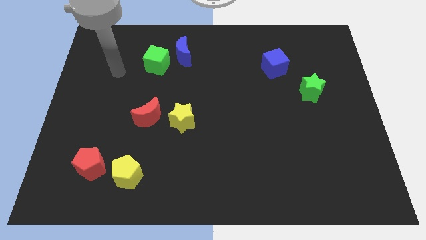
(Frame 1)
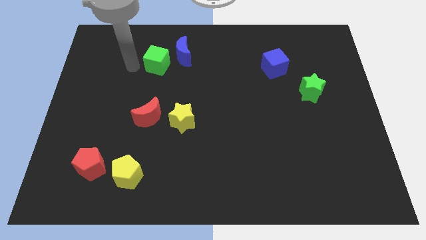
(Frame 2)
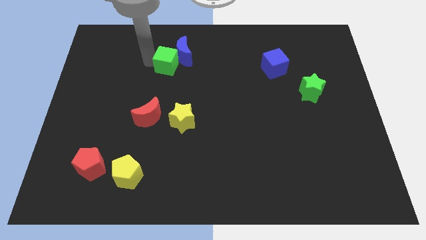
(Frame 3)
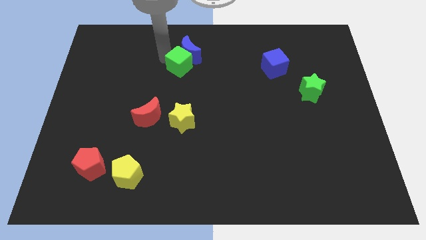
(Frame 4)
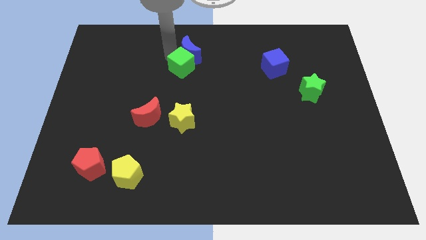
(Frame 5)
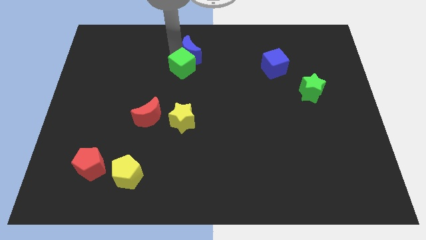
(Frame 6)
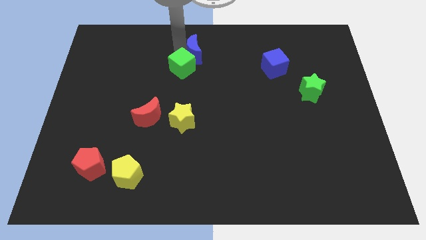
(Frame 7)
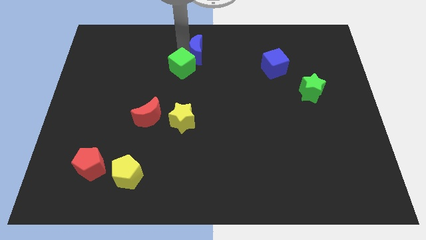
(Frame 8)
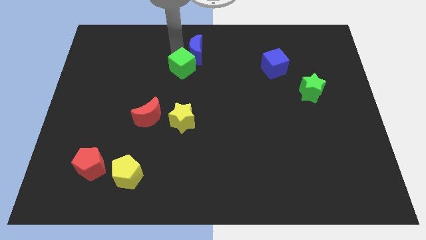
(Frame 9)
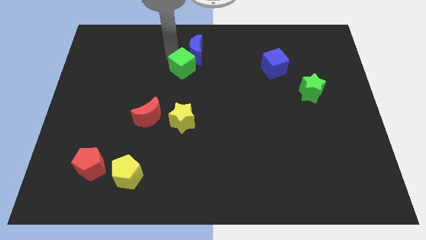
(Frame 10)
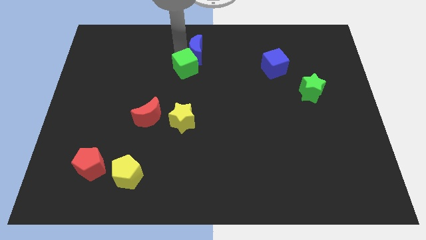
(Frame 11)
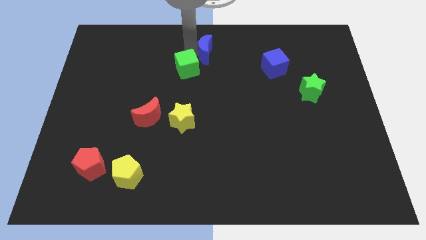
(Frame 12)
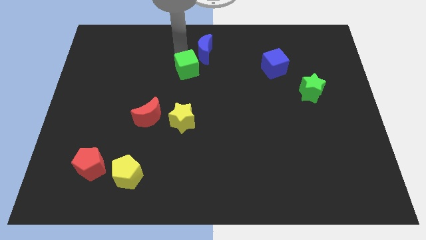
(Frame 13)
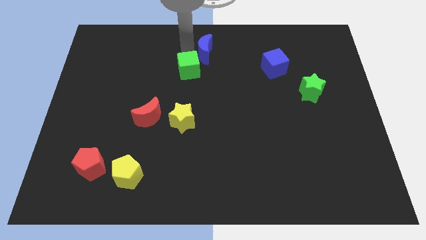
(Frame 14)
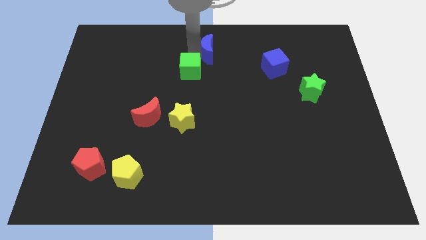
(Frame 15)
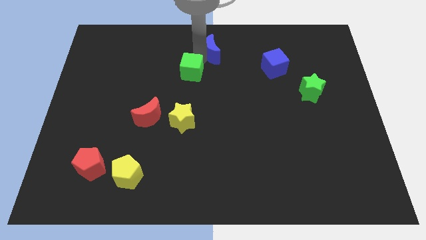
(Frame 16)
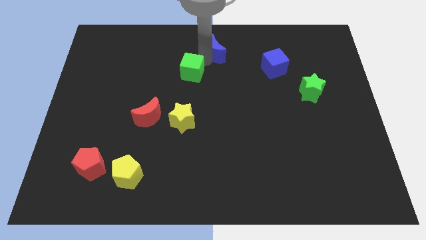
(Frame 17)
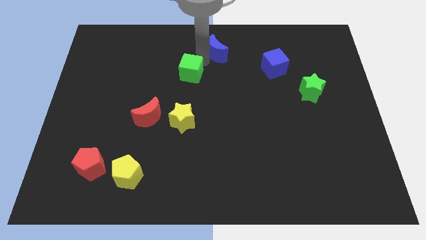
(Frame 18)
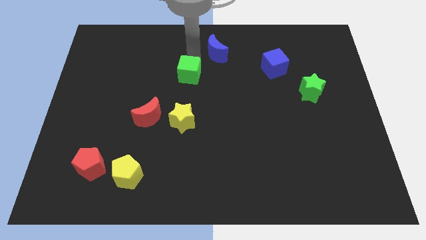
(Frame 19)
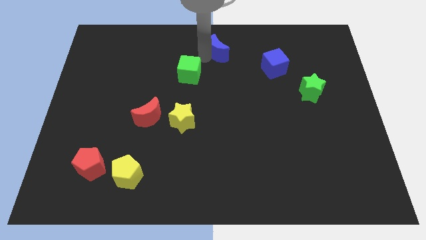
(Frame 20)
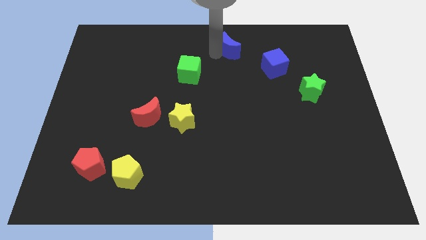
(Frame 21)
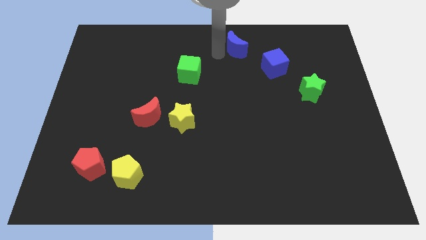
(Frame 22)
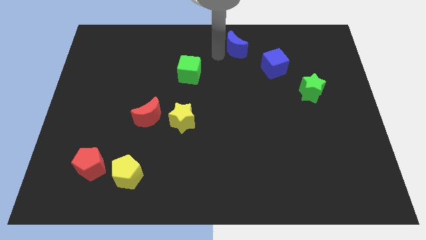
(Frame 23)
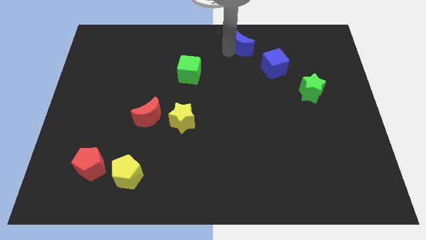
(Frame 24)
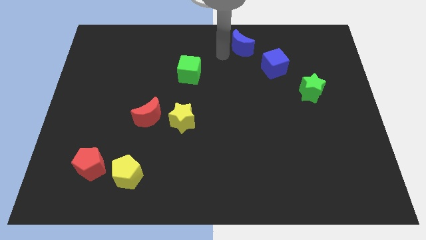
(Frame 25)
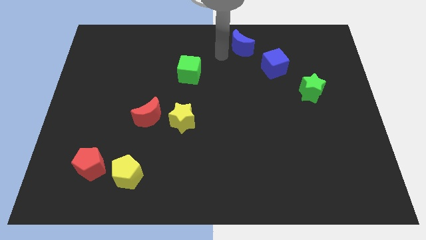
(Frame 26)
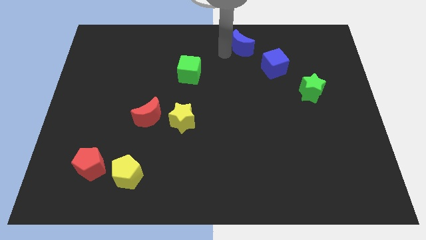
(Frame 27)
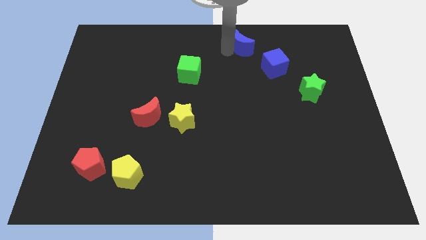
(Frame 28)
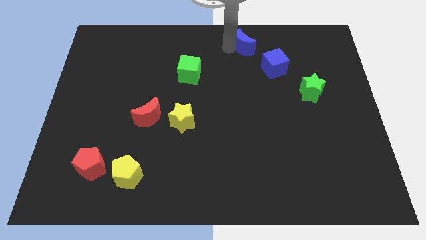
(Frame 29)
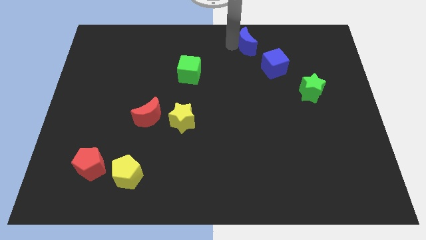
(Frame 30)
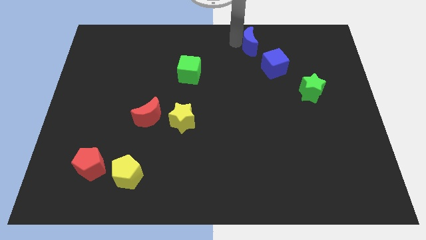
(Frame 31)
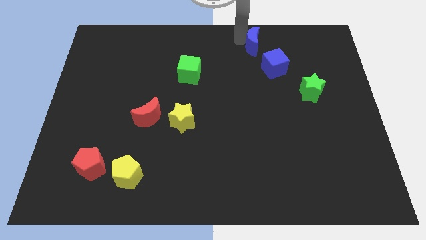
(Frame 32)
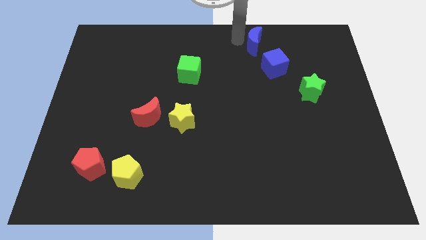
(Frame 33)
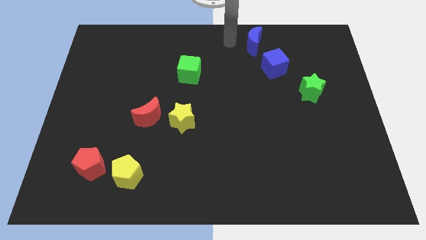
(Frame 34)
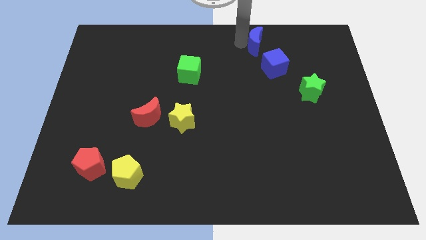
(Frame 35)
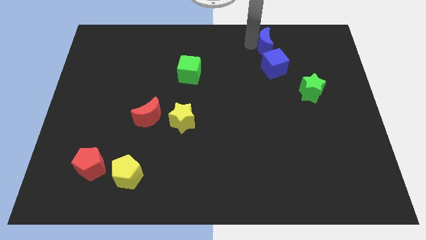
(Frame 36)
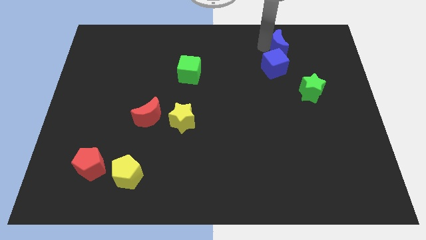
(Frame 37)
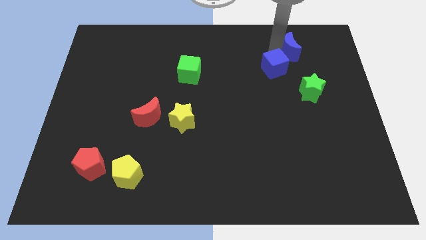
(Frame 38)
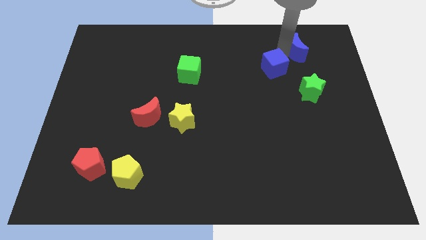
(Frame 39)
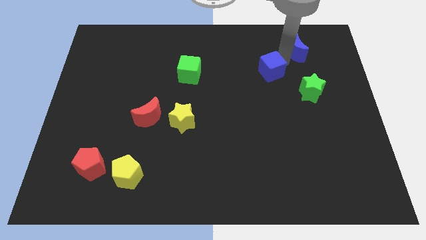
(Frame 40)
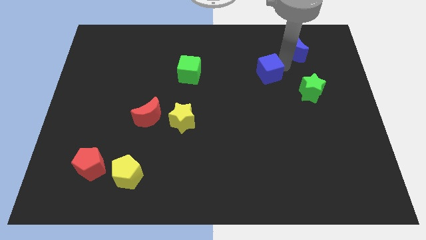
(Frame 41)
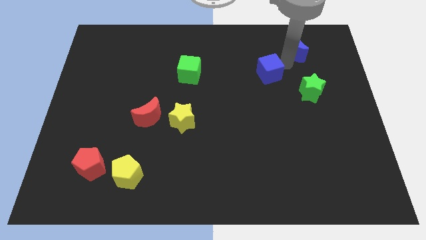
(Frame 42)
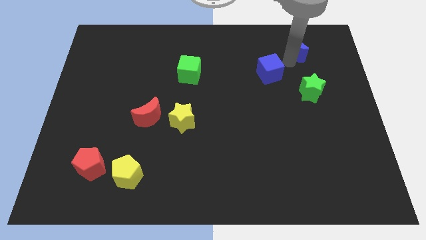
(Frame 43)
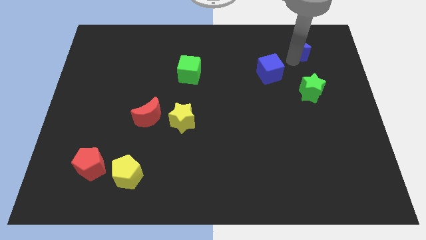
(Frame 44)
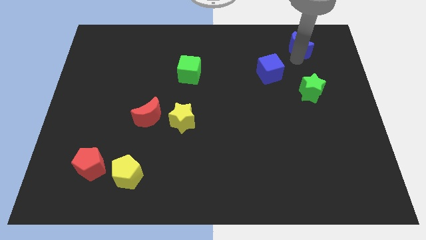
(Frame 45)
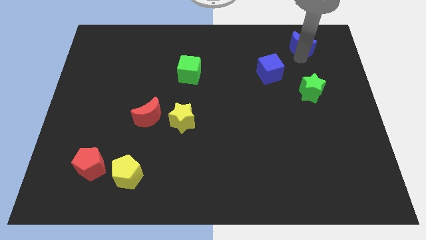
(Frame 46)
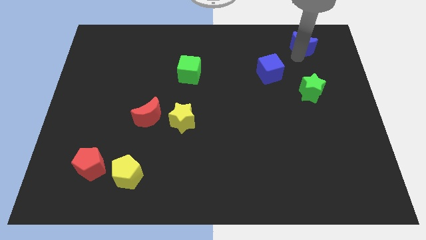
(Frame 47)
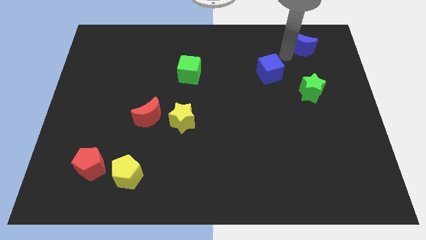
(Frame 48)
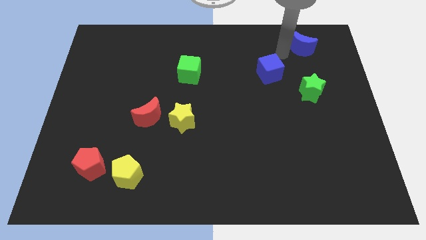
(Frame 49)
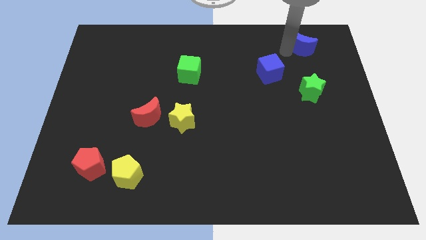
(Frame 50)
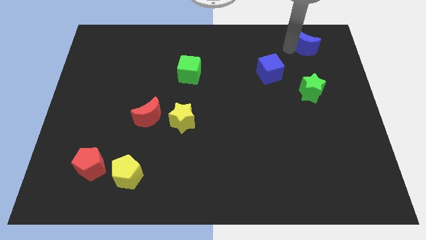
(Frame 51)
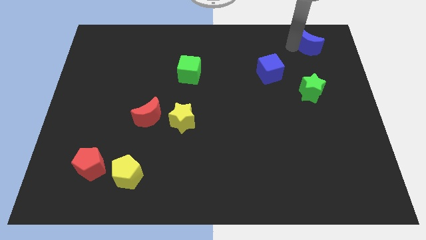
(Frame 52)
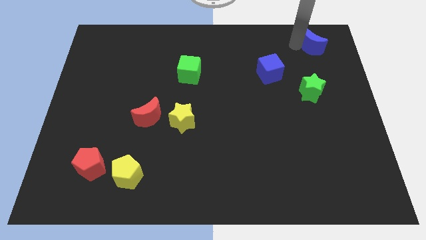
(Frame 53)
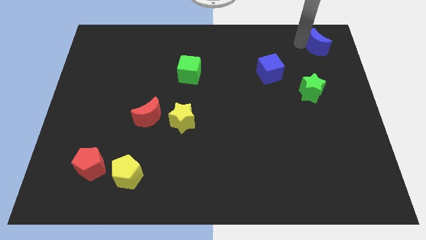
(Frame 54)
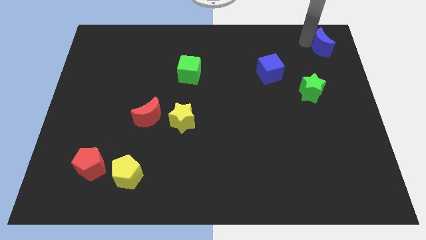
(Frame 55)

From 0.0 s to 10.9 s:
move the blue moon to the top right corner

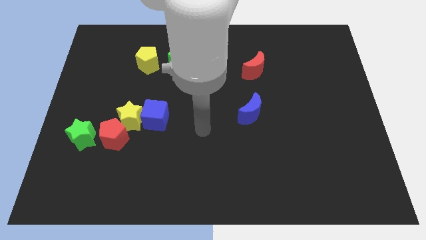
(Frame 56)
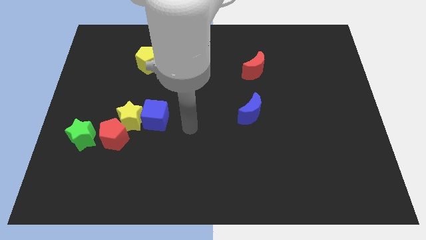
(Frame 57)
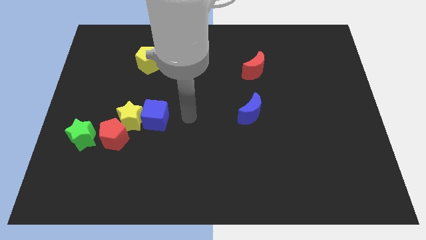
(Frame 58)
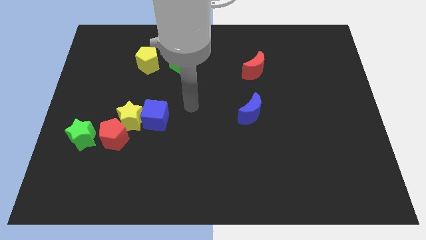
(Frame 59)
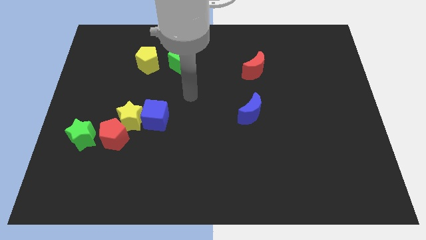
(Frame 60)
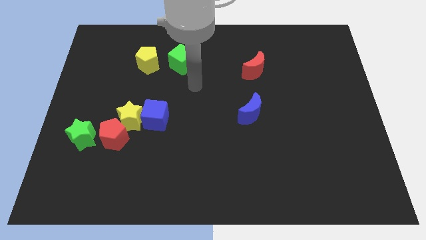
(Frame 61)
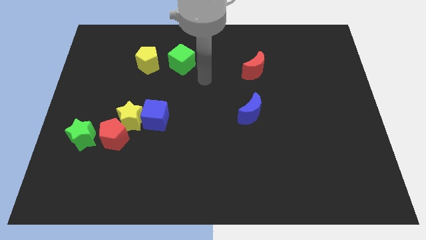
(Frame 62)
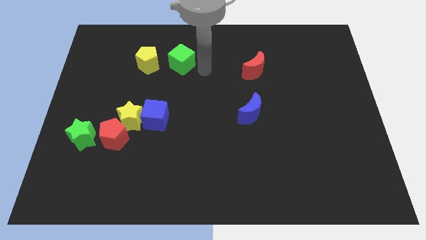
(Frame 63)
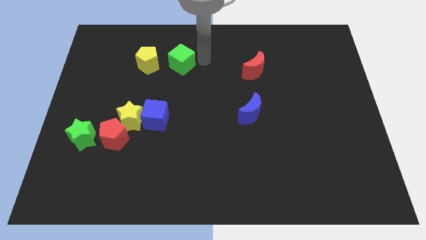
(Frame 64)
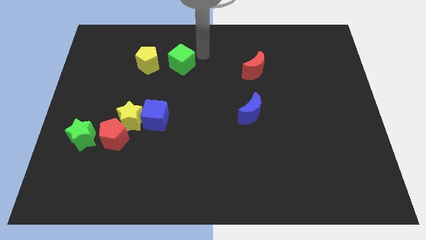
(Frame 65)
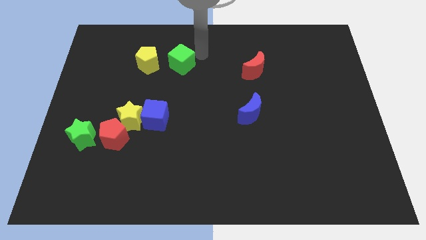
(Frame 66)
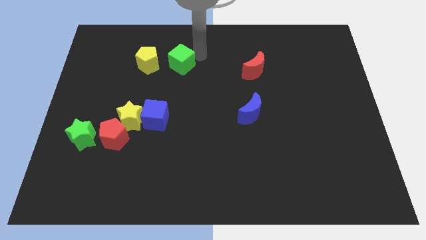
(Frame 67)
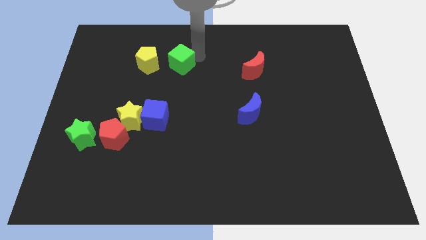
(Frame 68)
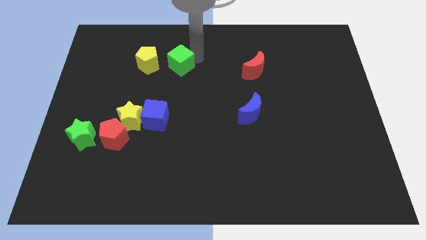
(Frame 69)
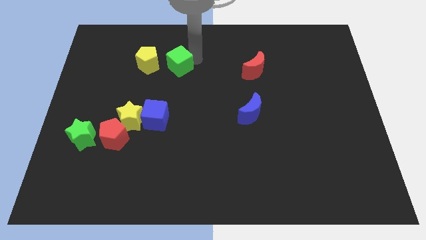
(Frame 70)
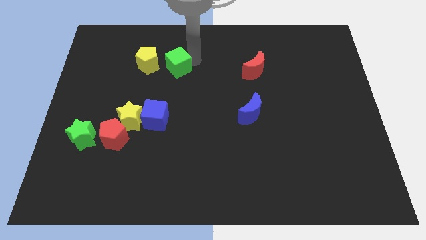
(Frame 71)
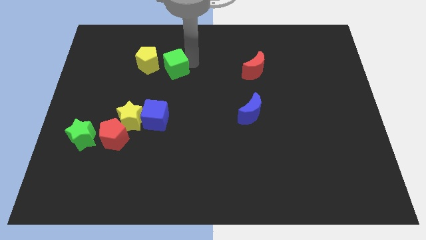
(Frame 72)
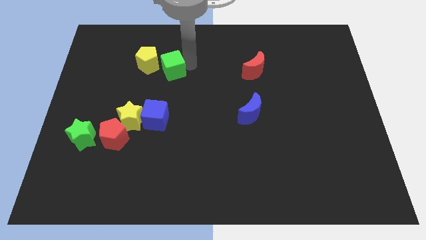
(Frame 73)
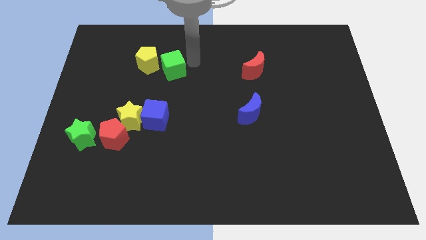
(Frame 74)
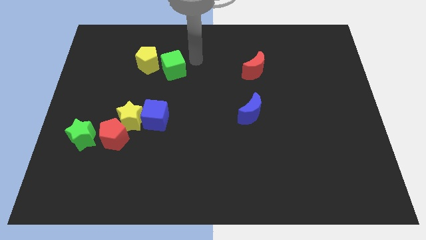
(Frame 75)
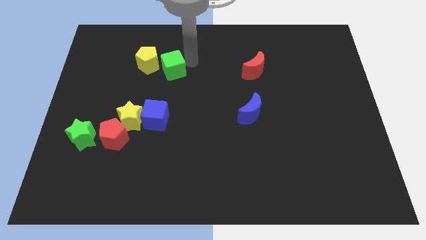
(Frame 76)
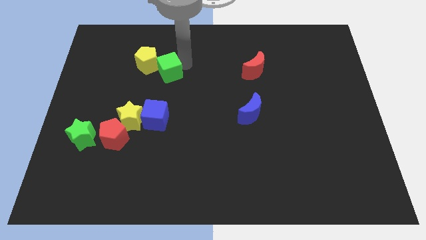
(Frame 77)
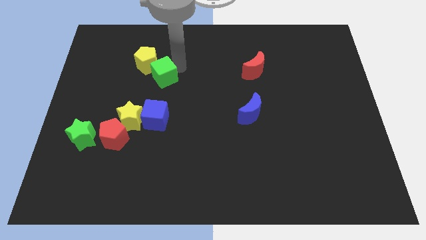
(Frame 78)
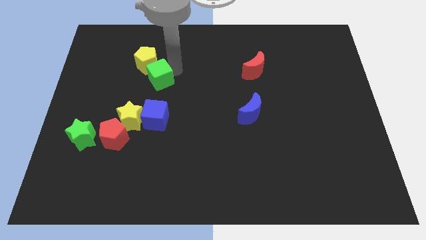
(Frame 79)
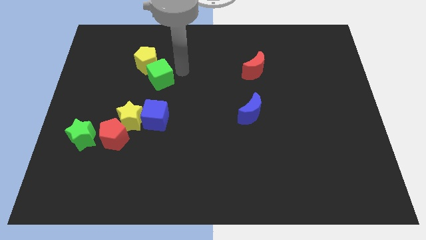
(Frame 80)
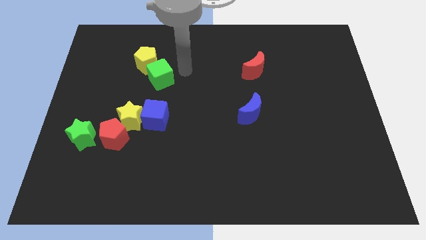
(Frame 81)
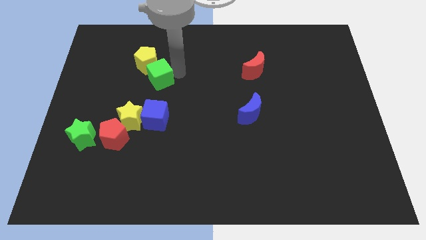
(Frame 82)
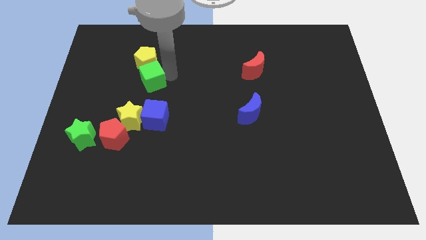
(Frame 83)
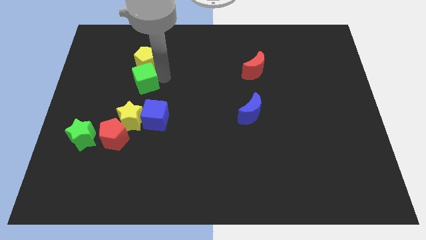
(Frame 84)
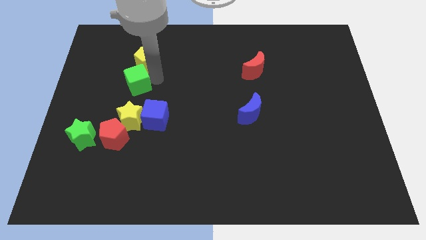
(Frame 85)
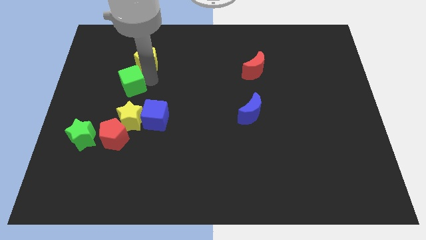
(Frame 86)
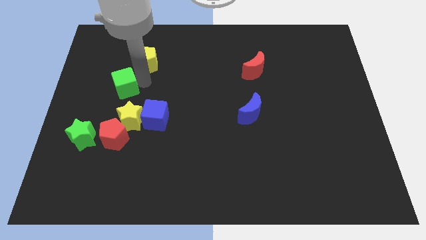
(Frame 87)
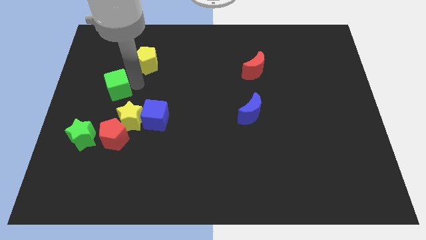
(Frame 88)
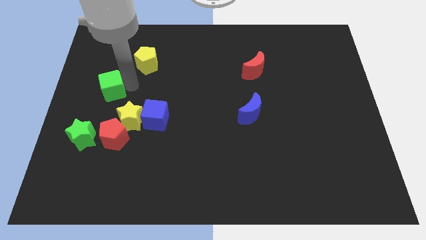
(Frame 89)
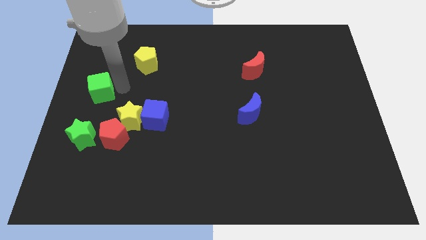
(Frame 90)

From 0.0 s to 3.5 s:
move the green cube to the left side of the board
